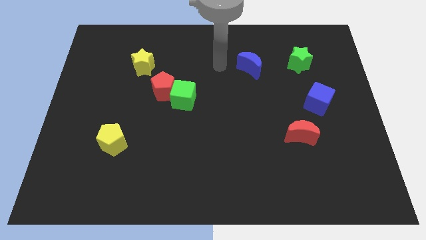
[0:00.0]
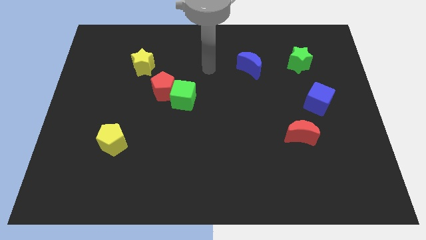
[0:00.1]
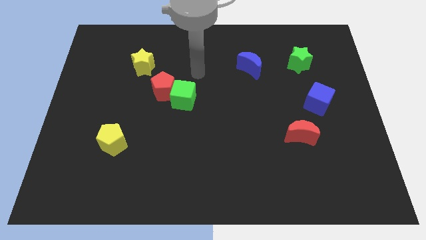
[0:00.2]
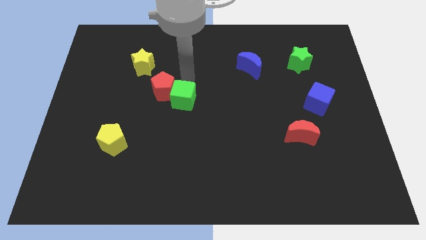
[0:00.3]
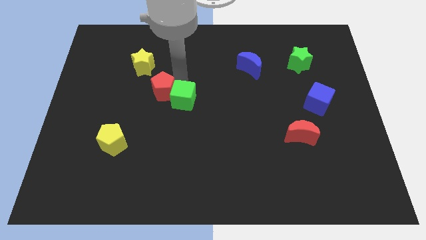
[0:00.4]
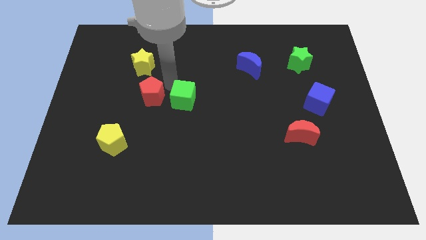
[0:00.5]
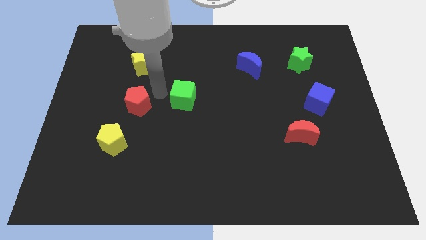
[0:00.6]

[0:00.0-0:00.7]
move the green cube away from the red pentagon

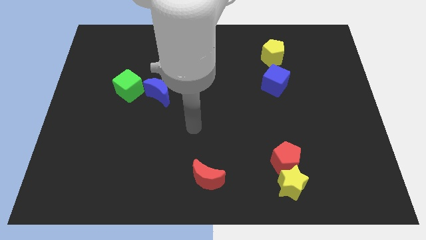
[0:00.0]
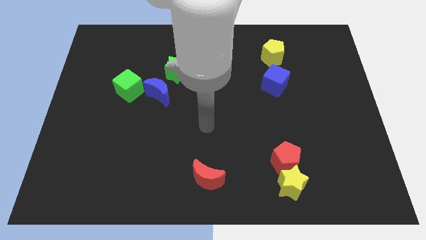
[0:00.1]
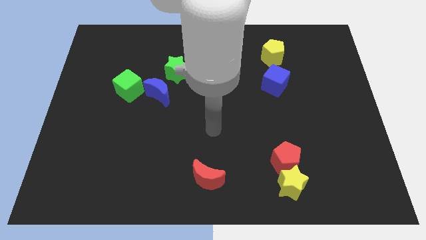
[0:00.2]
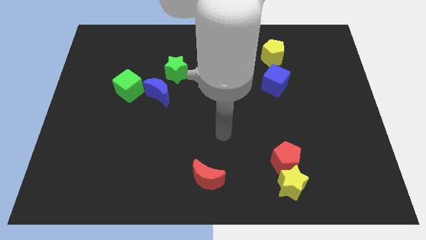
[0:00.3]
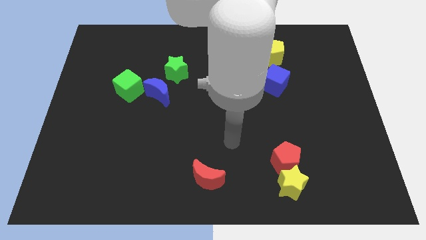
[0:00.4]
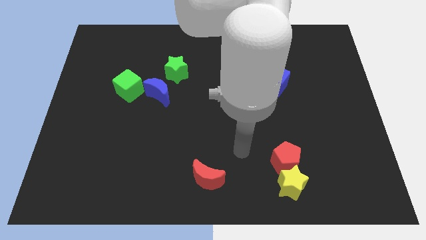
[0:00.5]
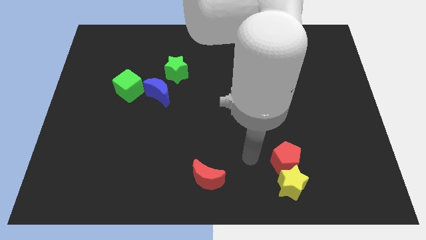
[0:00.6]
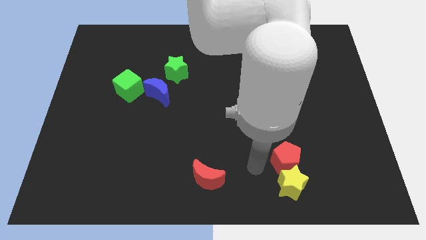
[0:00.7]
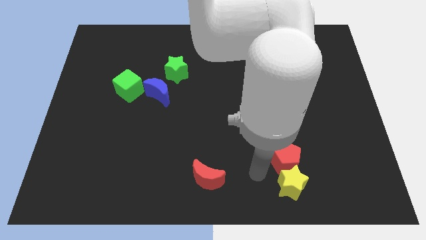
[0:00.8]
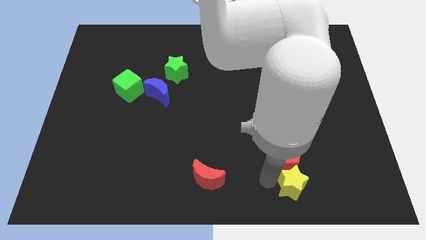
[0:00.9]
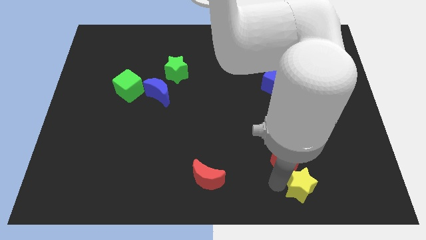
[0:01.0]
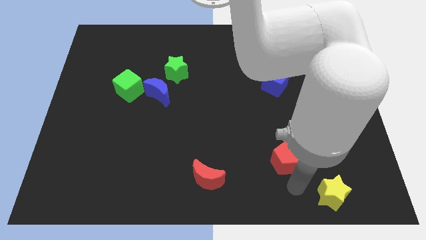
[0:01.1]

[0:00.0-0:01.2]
pull the red pentagon apart from the yellow star

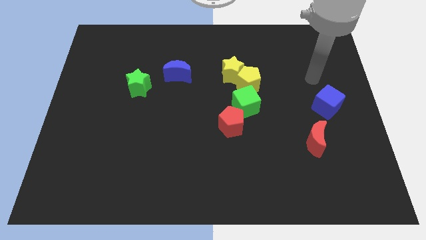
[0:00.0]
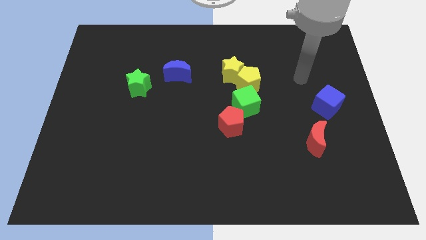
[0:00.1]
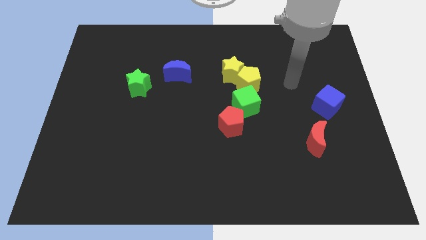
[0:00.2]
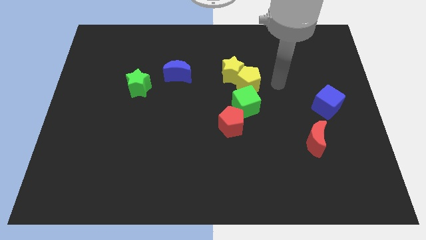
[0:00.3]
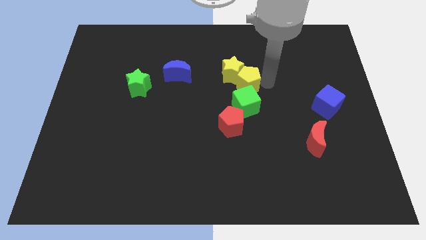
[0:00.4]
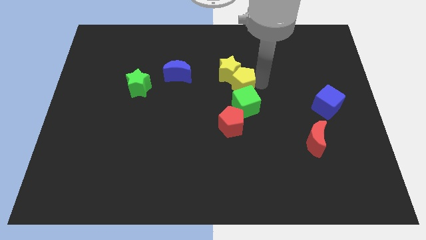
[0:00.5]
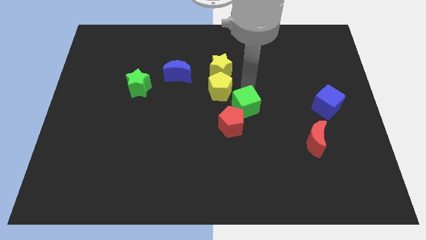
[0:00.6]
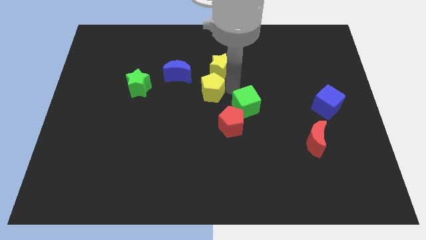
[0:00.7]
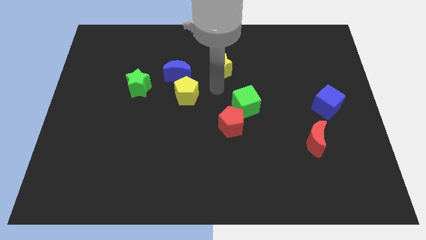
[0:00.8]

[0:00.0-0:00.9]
pull the yellow star apart from the yellow pentagon

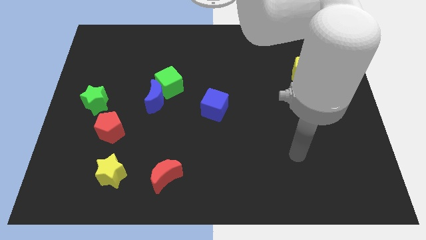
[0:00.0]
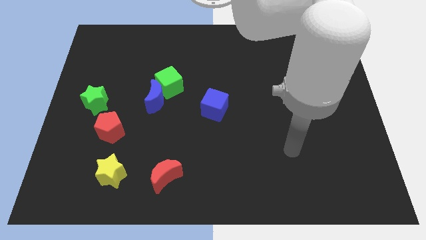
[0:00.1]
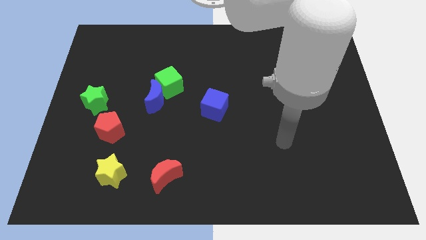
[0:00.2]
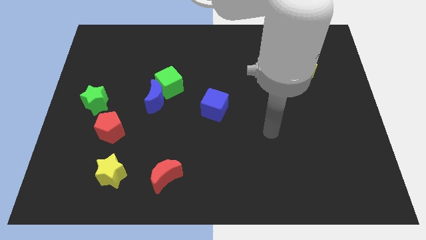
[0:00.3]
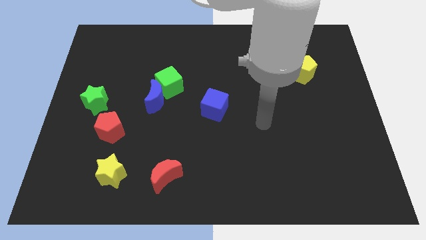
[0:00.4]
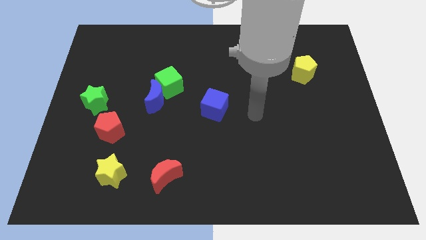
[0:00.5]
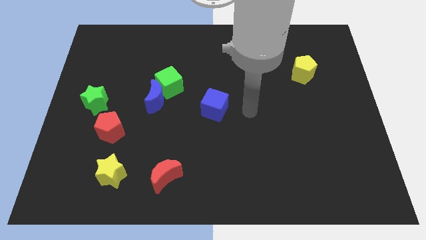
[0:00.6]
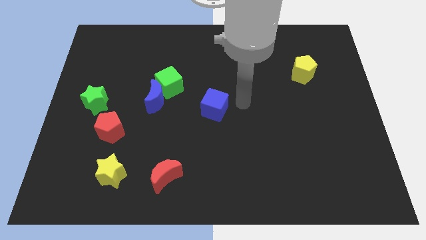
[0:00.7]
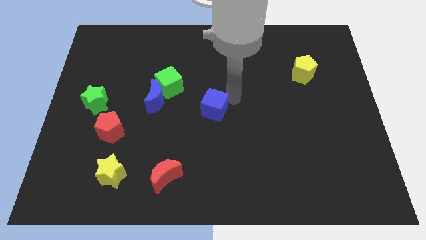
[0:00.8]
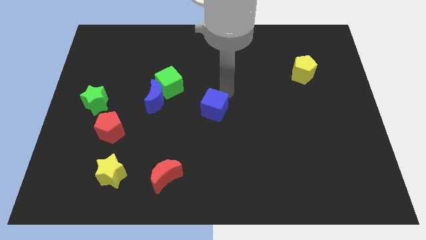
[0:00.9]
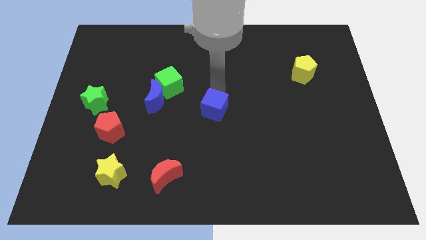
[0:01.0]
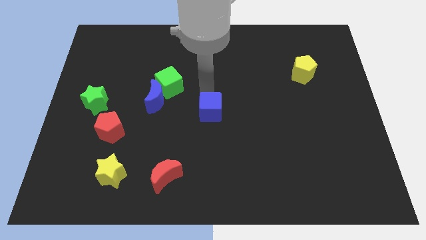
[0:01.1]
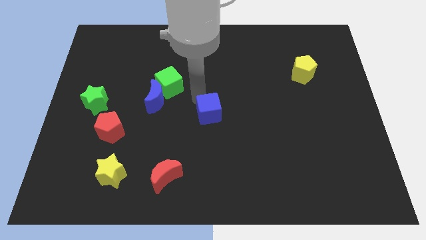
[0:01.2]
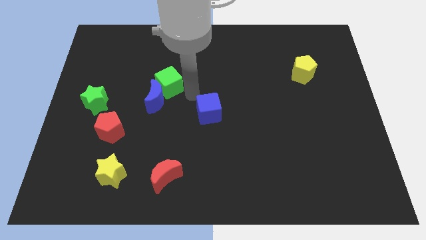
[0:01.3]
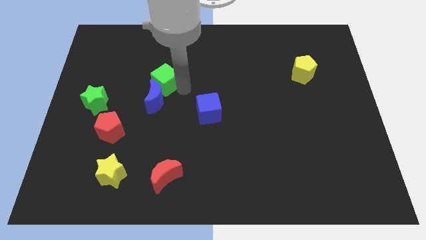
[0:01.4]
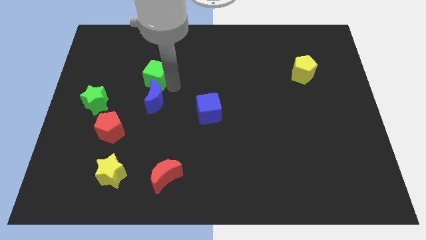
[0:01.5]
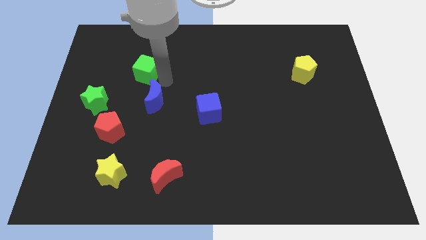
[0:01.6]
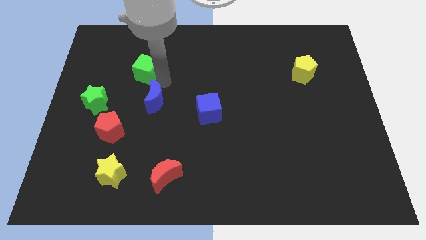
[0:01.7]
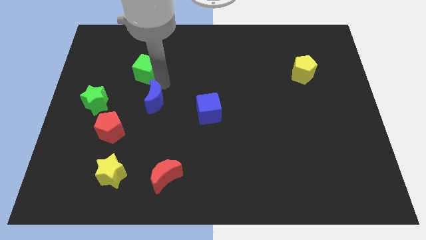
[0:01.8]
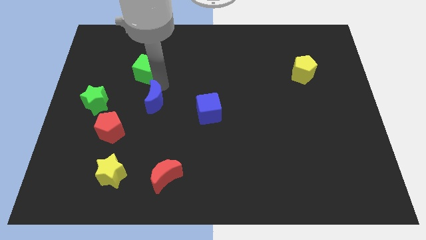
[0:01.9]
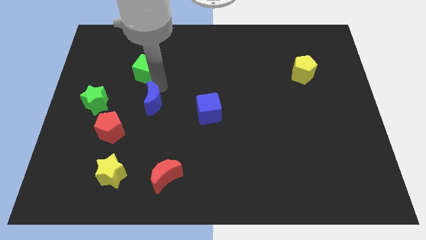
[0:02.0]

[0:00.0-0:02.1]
move the blue moon away from the green cube

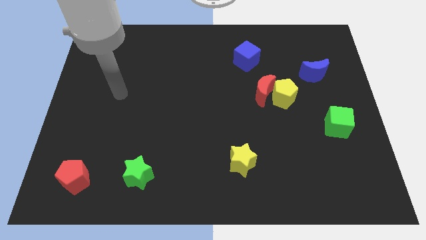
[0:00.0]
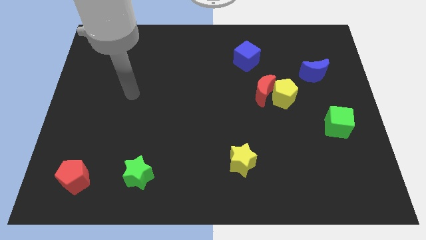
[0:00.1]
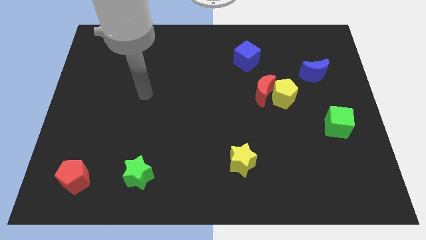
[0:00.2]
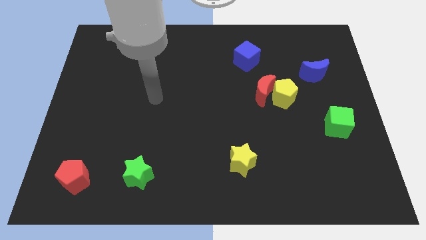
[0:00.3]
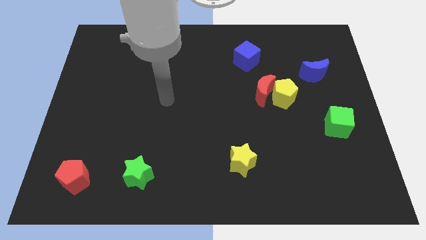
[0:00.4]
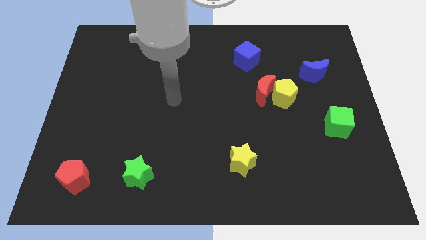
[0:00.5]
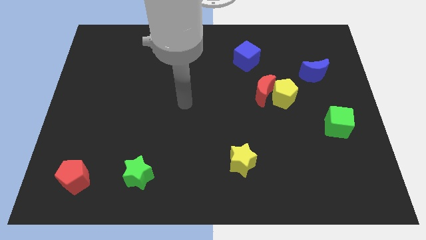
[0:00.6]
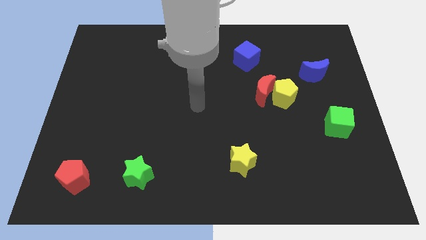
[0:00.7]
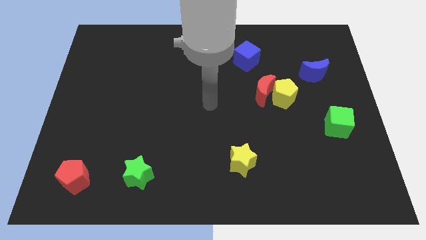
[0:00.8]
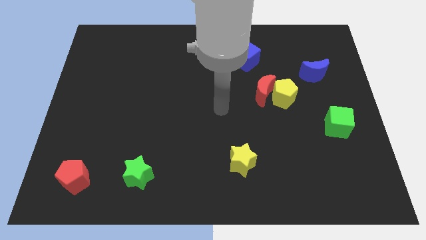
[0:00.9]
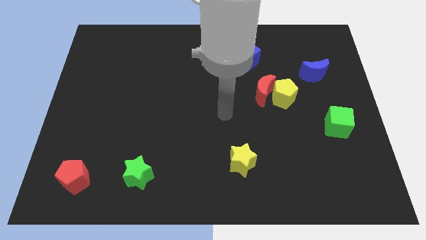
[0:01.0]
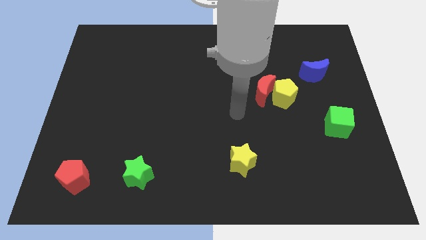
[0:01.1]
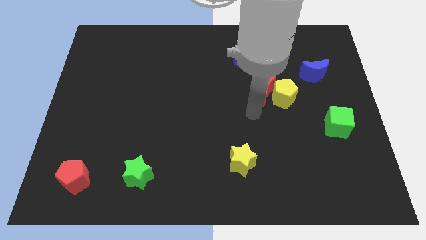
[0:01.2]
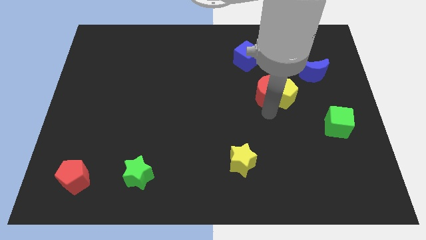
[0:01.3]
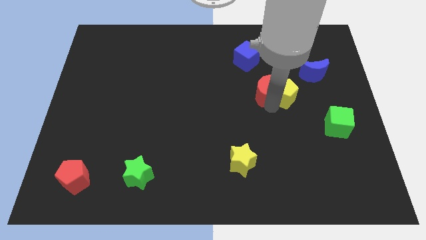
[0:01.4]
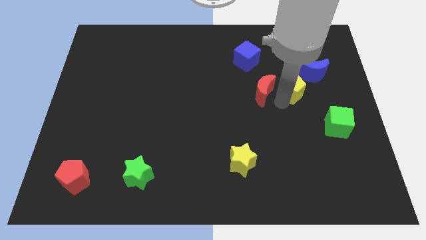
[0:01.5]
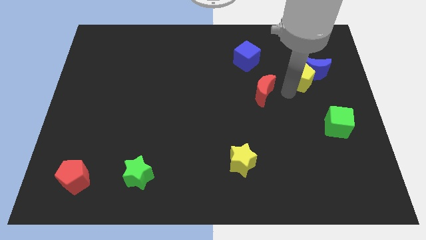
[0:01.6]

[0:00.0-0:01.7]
separate the red moon from the yellow pentagon

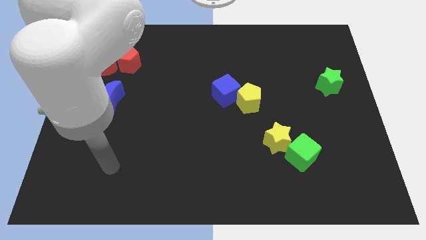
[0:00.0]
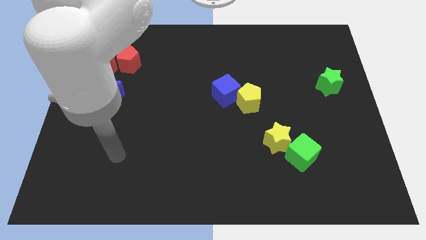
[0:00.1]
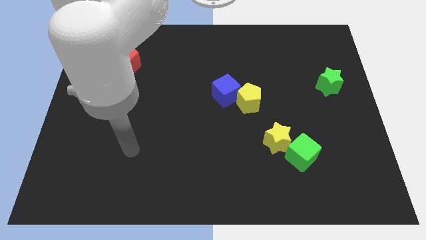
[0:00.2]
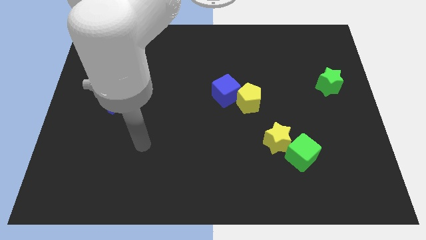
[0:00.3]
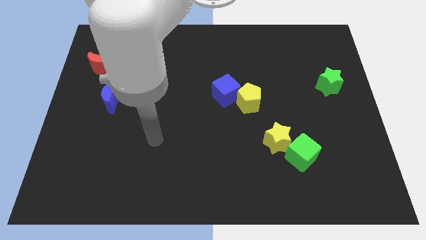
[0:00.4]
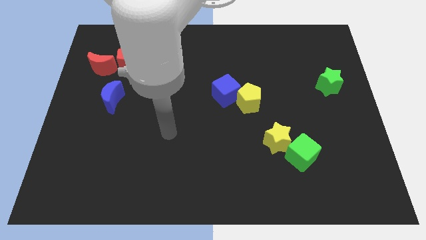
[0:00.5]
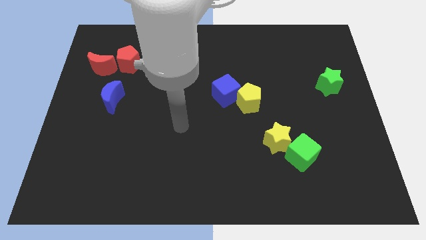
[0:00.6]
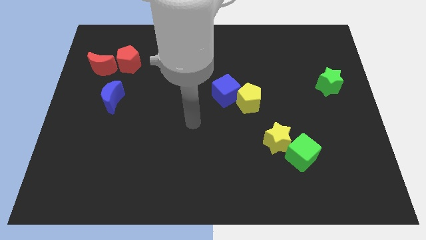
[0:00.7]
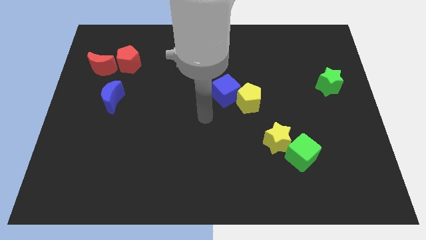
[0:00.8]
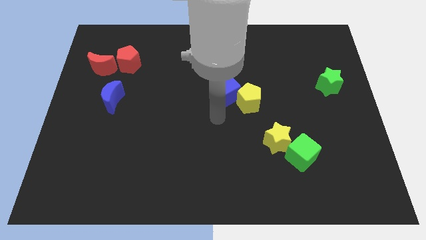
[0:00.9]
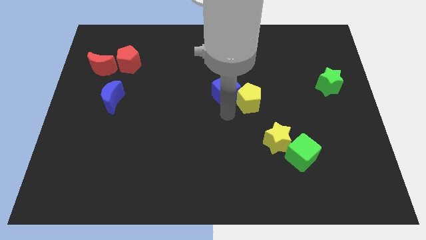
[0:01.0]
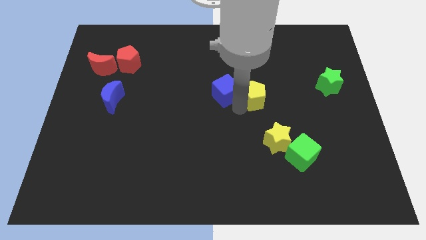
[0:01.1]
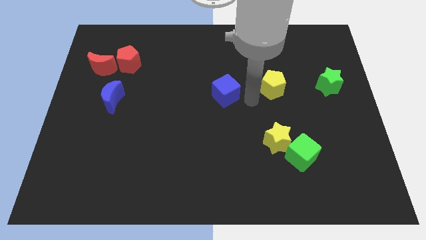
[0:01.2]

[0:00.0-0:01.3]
separate the blue cube from the yellow pentagon

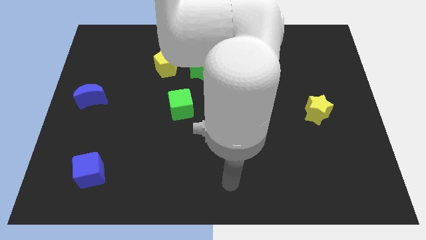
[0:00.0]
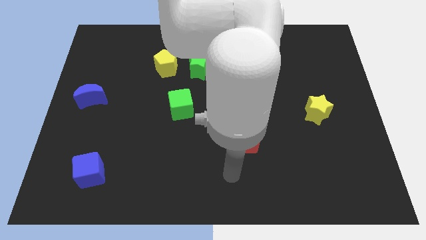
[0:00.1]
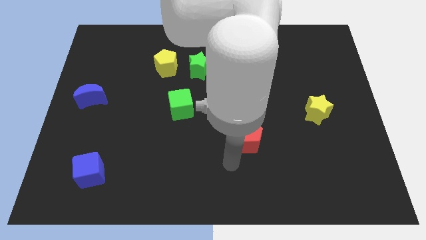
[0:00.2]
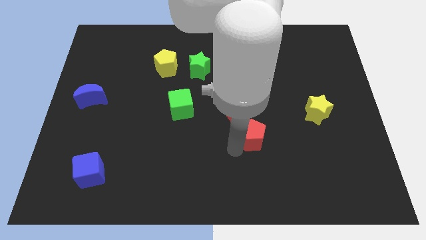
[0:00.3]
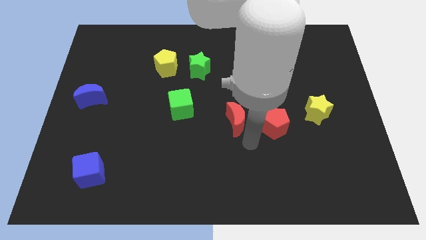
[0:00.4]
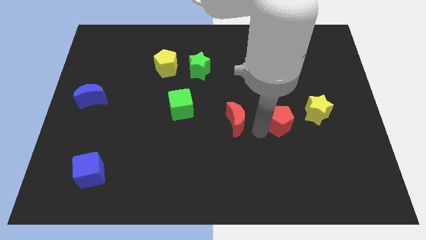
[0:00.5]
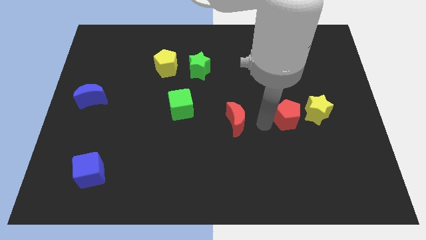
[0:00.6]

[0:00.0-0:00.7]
move the red moon away from the red pentagon

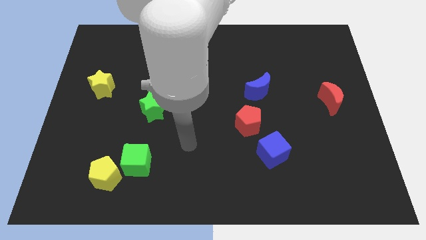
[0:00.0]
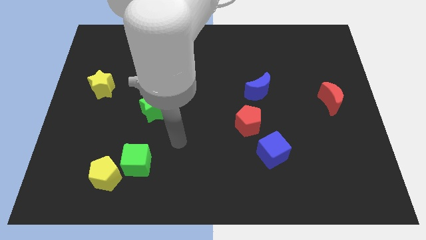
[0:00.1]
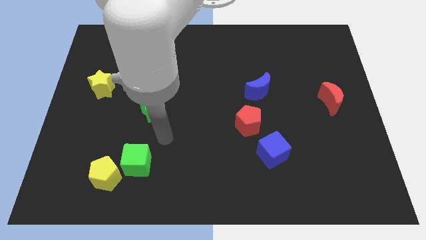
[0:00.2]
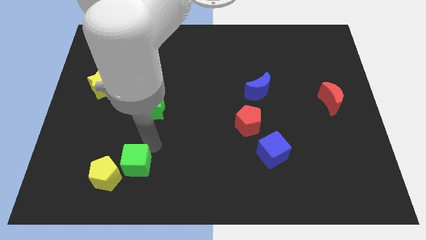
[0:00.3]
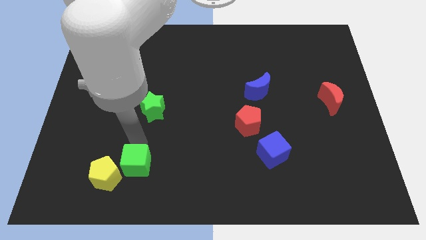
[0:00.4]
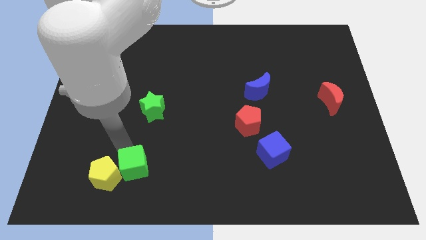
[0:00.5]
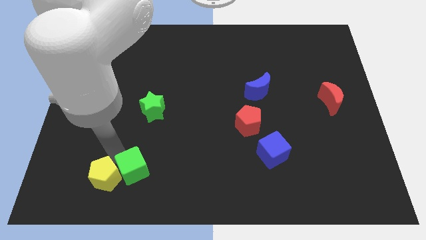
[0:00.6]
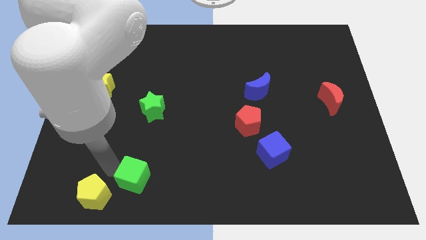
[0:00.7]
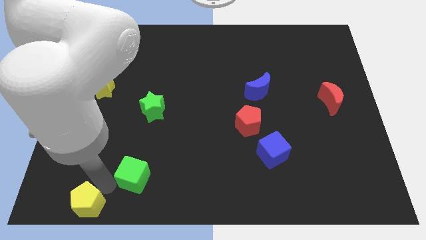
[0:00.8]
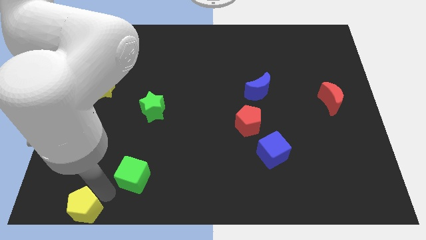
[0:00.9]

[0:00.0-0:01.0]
move the green cube away from the yellow pentagon
